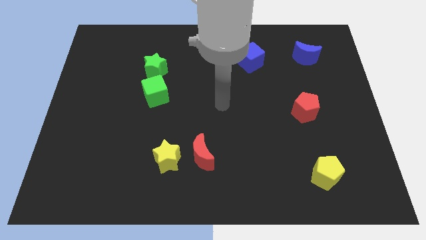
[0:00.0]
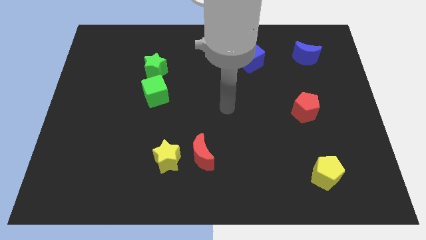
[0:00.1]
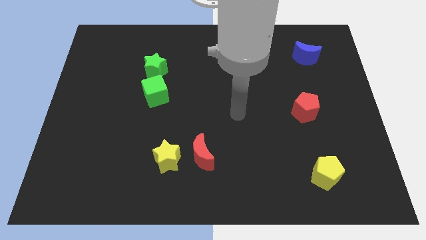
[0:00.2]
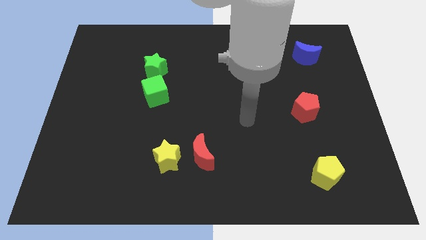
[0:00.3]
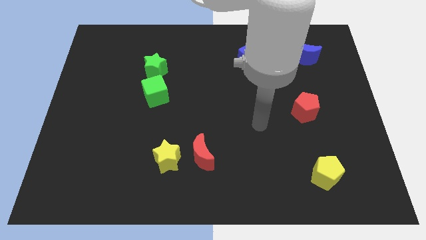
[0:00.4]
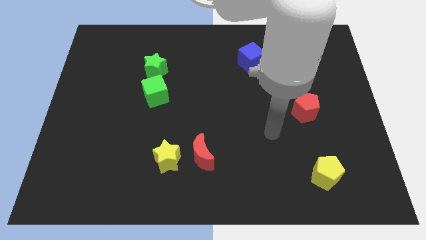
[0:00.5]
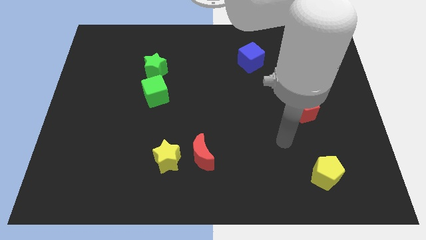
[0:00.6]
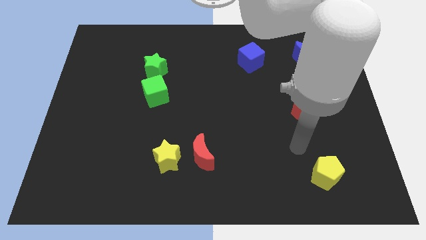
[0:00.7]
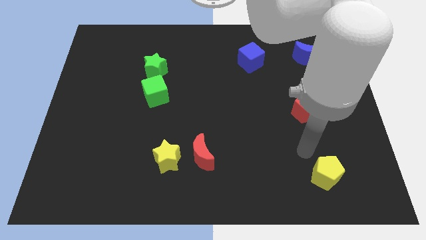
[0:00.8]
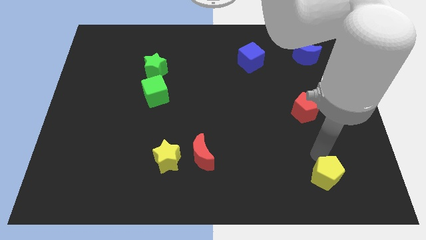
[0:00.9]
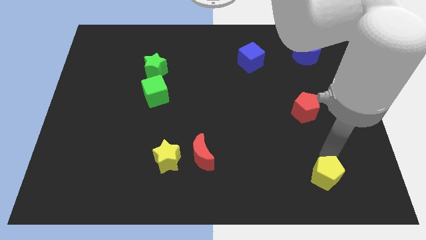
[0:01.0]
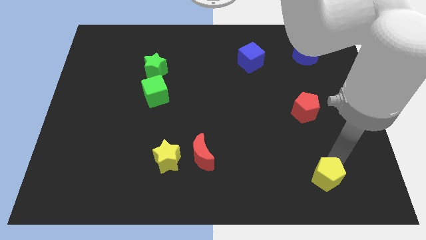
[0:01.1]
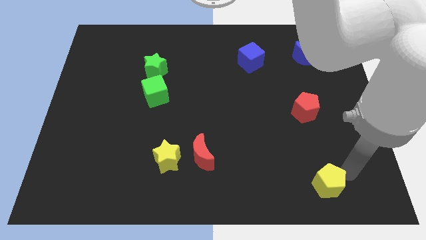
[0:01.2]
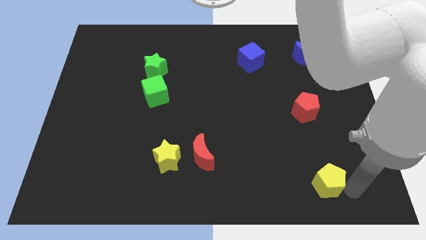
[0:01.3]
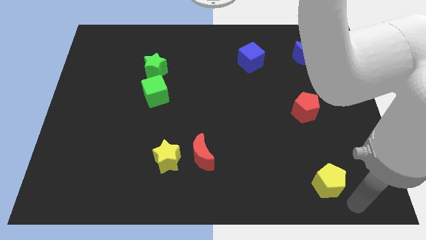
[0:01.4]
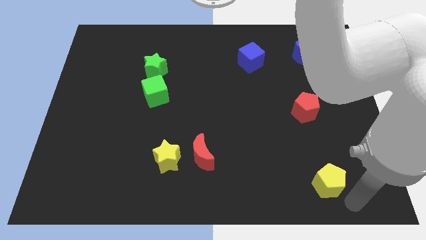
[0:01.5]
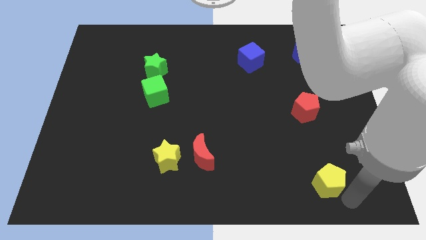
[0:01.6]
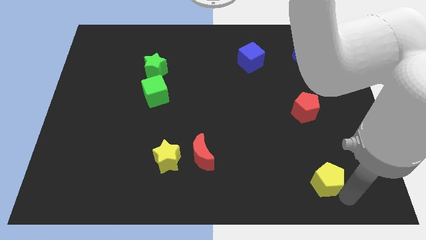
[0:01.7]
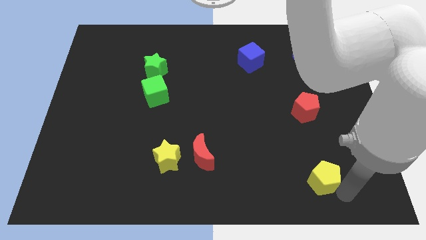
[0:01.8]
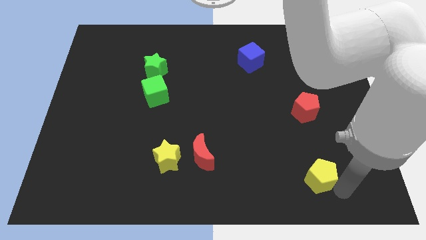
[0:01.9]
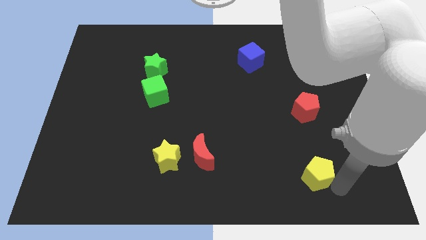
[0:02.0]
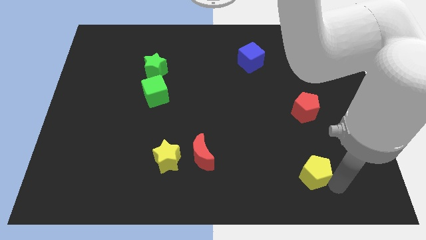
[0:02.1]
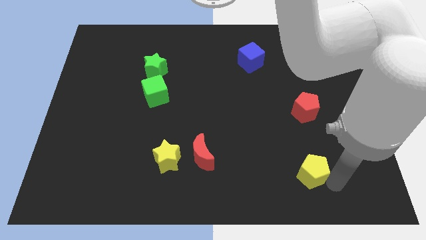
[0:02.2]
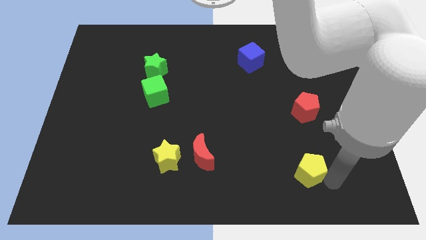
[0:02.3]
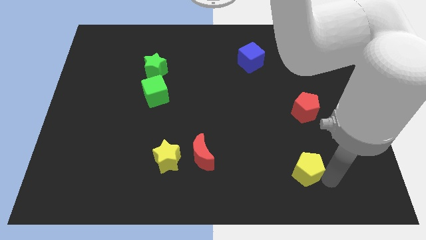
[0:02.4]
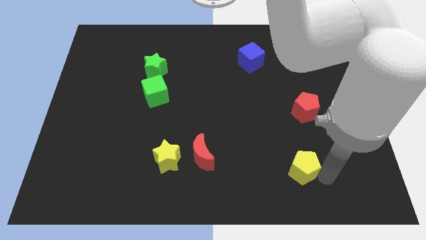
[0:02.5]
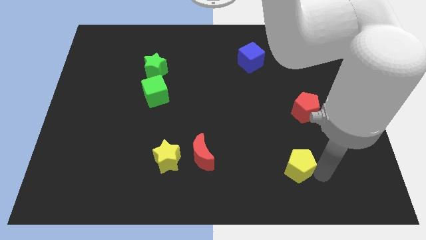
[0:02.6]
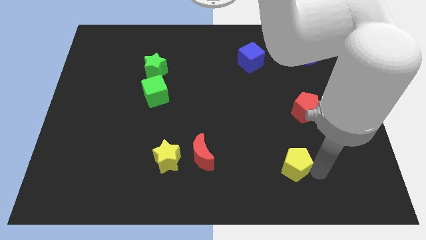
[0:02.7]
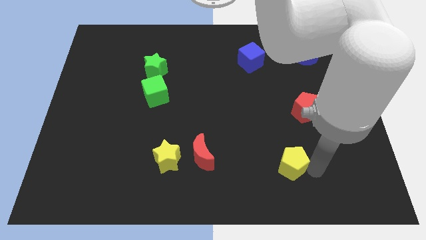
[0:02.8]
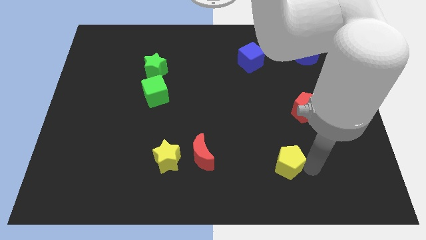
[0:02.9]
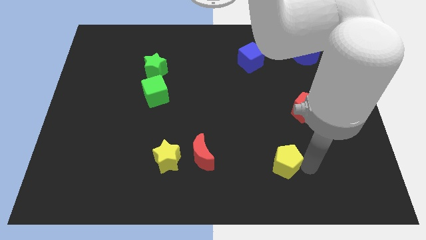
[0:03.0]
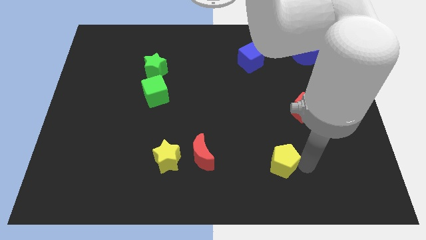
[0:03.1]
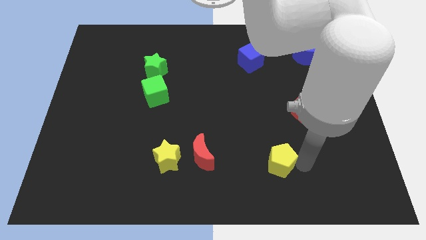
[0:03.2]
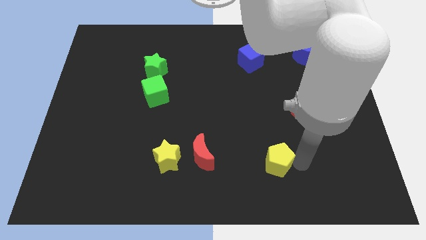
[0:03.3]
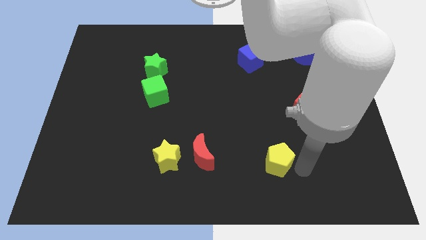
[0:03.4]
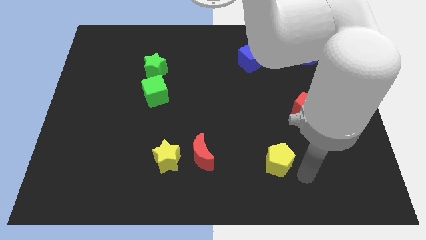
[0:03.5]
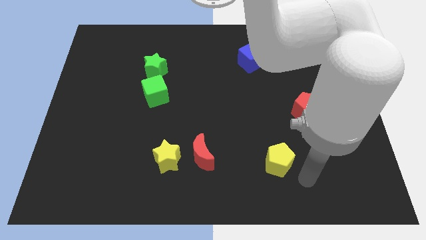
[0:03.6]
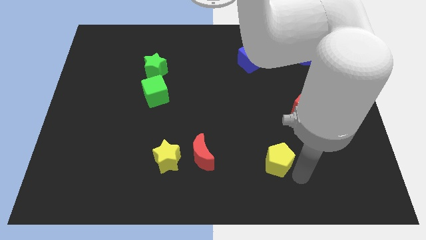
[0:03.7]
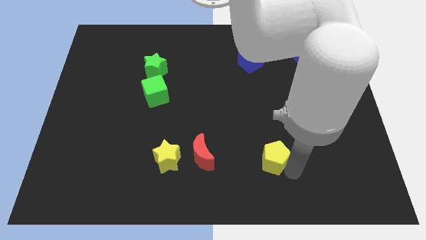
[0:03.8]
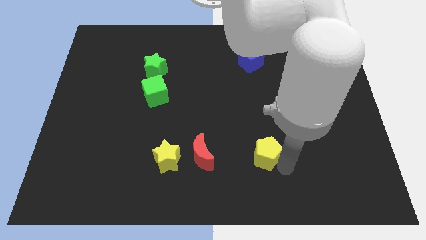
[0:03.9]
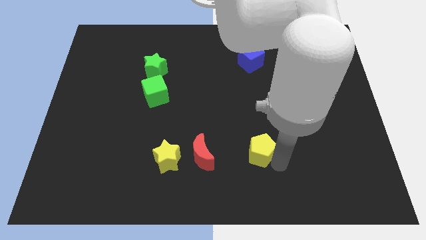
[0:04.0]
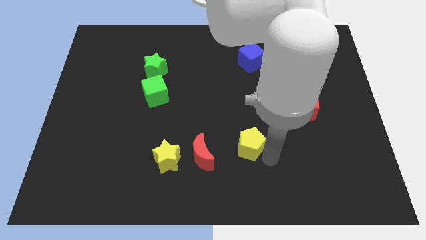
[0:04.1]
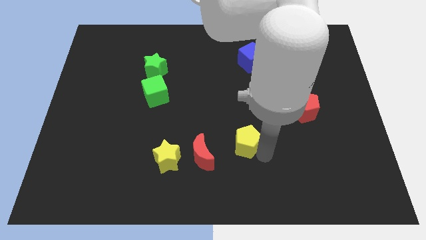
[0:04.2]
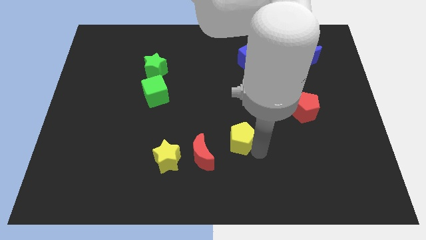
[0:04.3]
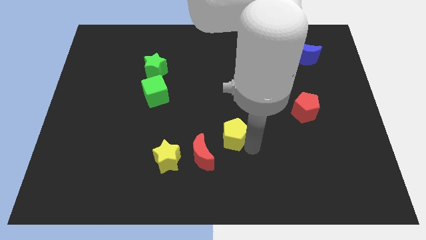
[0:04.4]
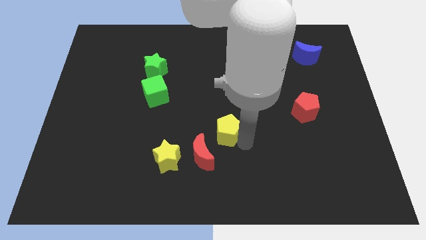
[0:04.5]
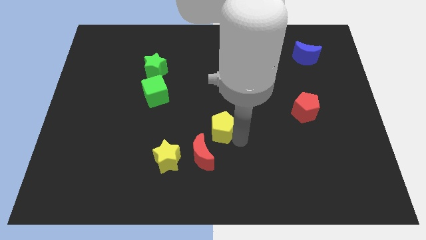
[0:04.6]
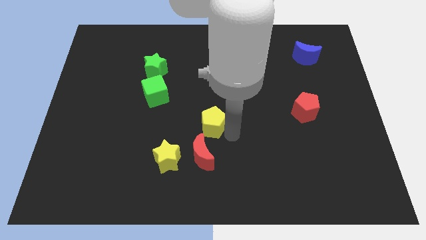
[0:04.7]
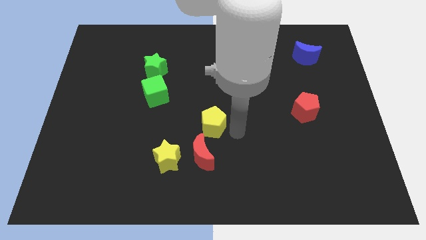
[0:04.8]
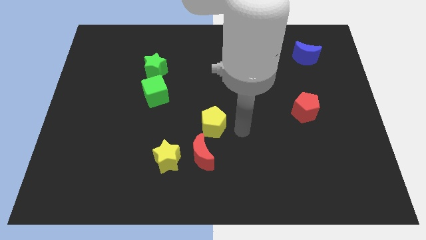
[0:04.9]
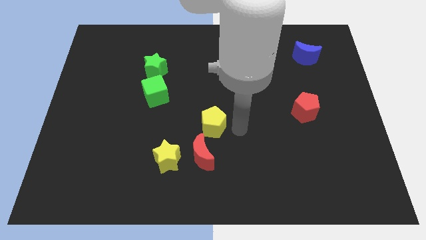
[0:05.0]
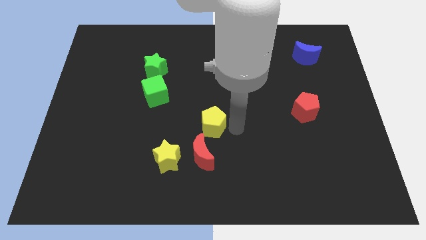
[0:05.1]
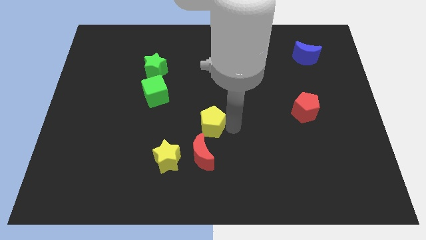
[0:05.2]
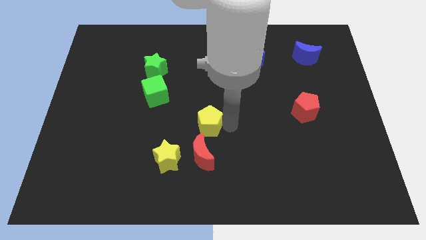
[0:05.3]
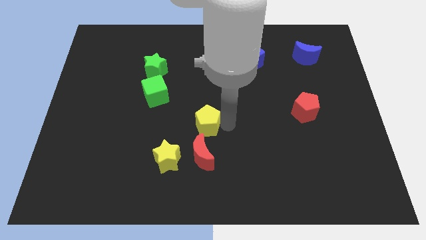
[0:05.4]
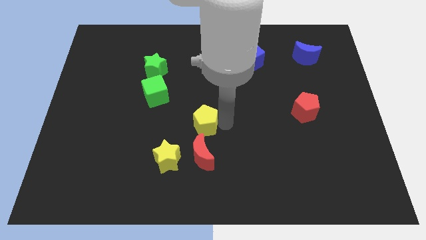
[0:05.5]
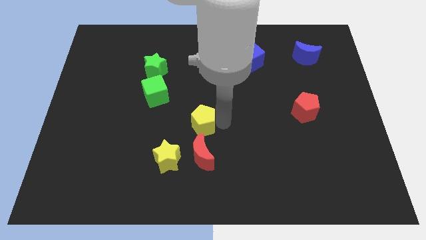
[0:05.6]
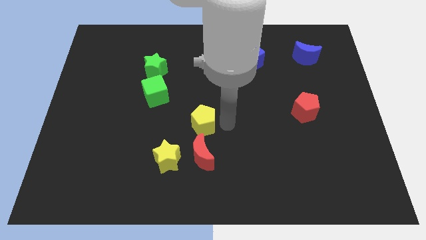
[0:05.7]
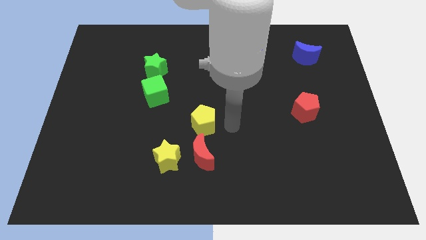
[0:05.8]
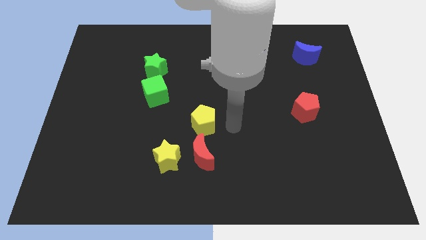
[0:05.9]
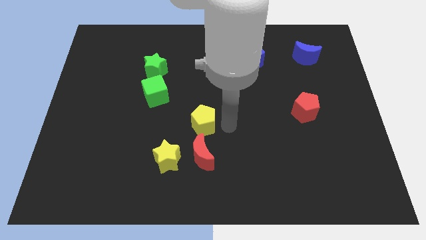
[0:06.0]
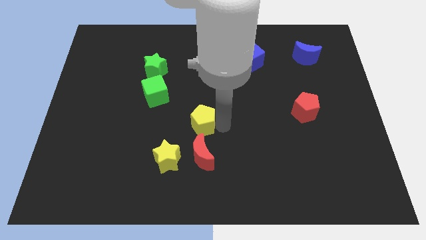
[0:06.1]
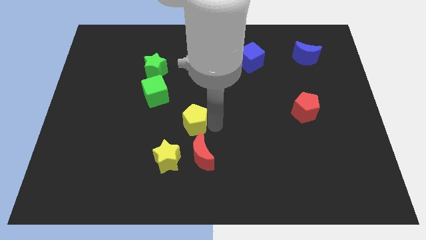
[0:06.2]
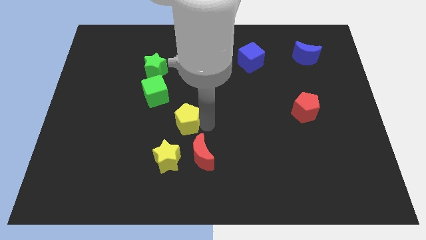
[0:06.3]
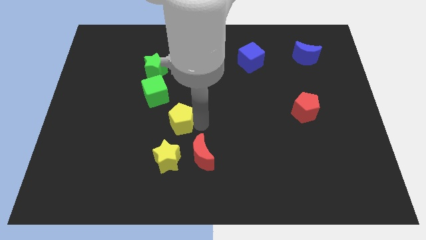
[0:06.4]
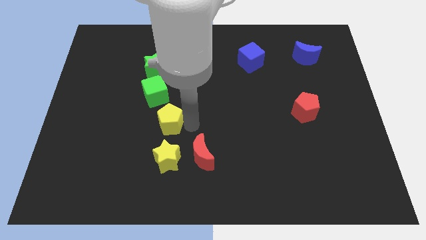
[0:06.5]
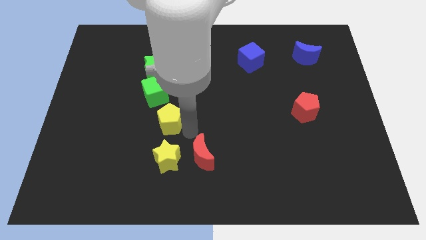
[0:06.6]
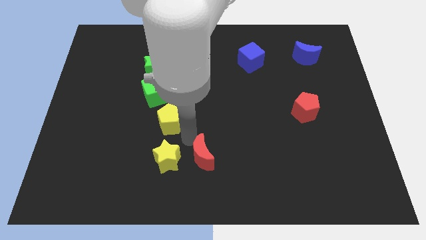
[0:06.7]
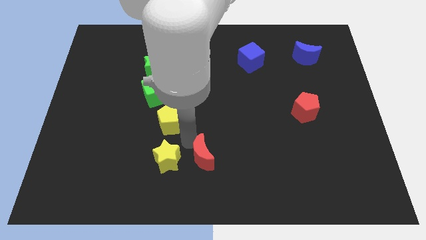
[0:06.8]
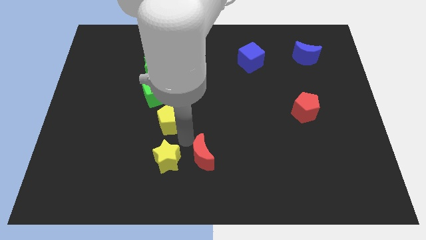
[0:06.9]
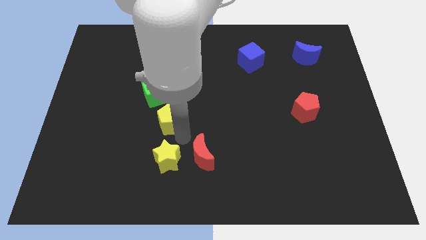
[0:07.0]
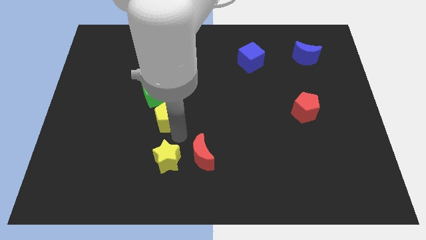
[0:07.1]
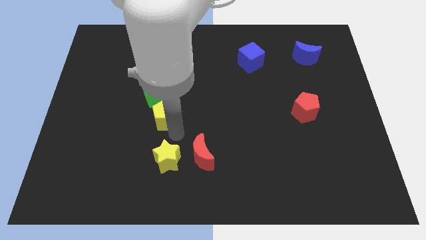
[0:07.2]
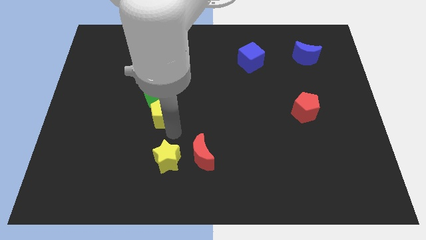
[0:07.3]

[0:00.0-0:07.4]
put the yellow pentagon below the green star
